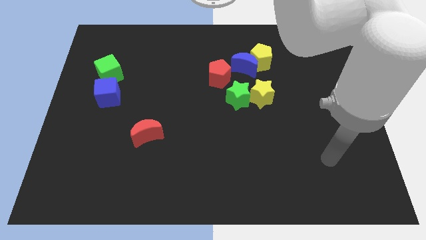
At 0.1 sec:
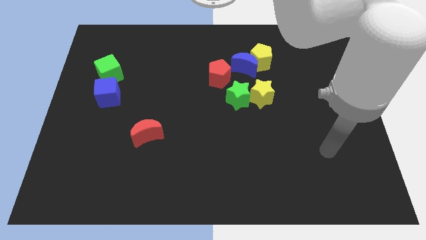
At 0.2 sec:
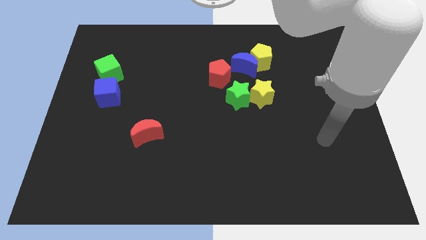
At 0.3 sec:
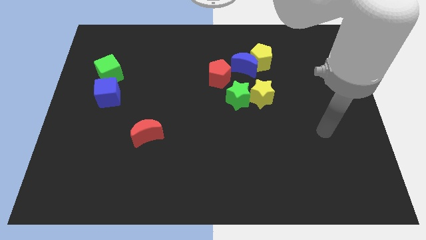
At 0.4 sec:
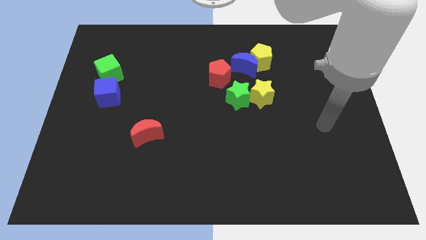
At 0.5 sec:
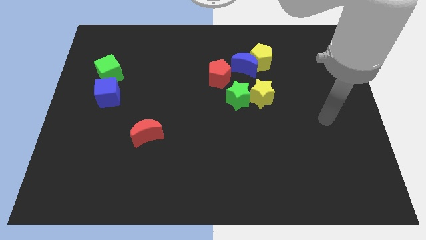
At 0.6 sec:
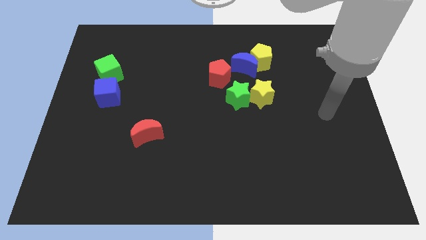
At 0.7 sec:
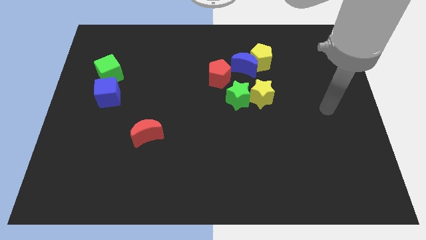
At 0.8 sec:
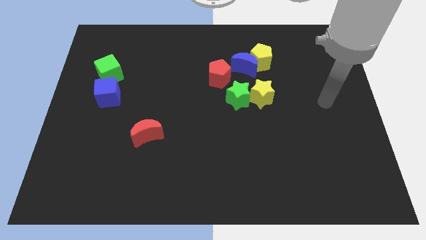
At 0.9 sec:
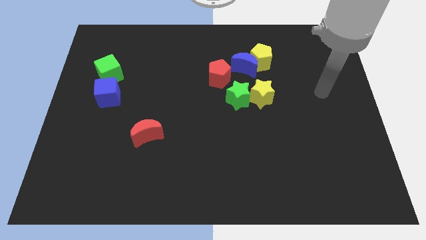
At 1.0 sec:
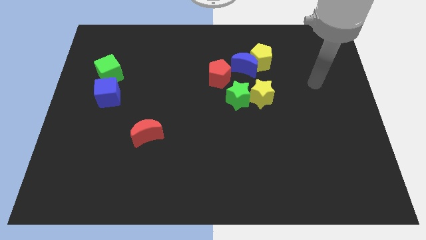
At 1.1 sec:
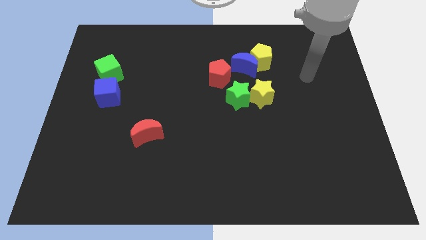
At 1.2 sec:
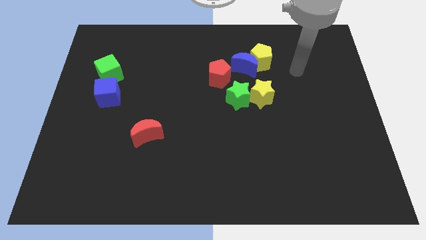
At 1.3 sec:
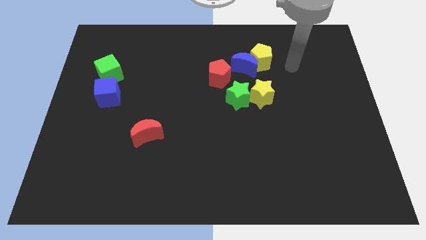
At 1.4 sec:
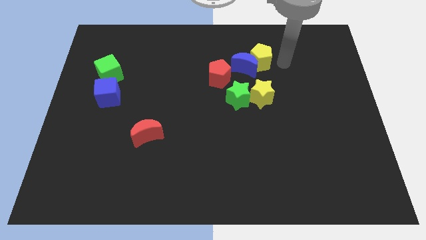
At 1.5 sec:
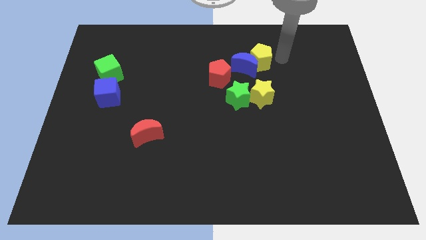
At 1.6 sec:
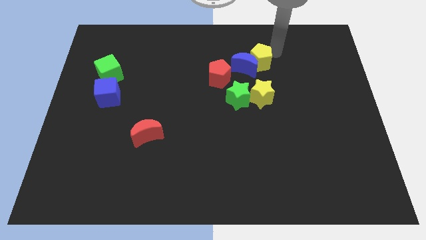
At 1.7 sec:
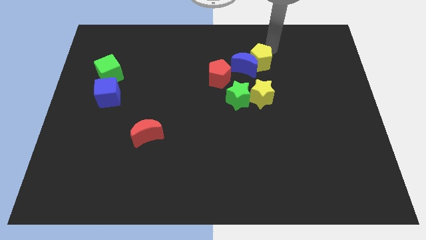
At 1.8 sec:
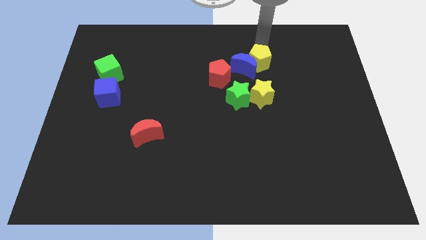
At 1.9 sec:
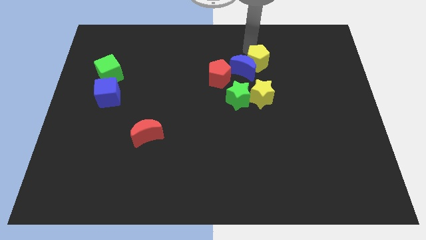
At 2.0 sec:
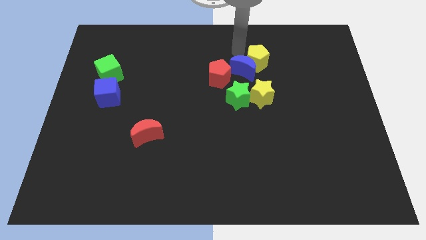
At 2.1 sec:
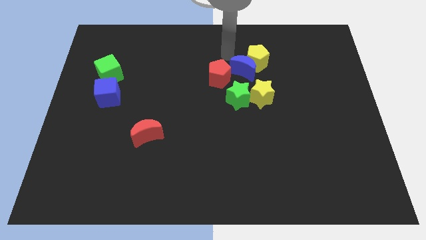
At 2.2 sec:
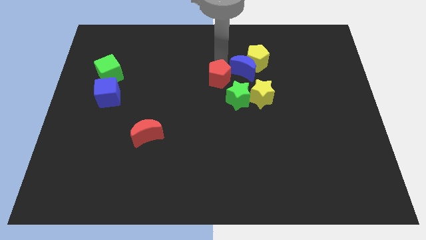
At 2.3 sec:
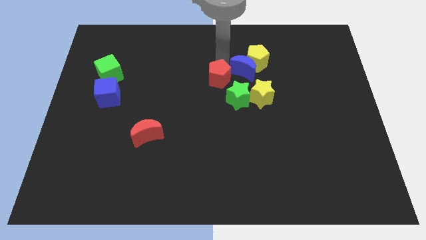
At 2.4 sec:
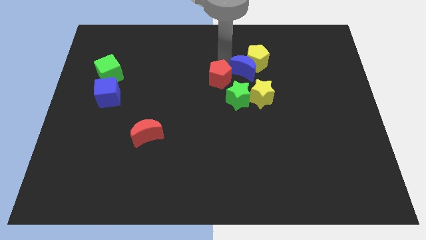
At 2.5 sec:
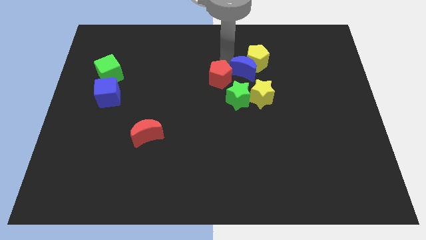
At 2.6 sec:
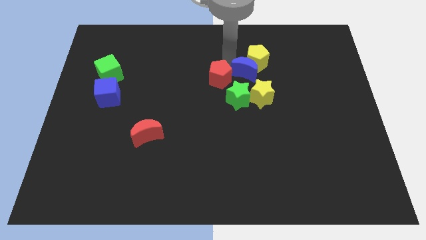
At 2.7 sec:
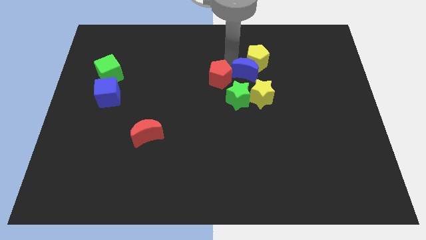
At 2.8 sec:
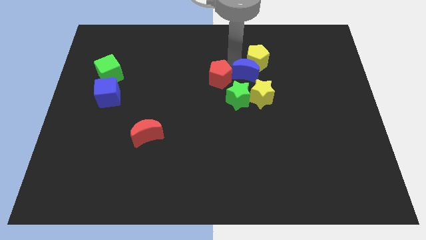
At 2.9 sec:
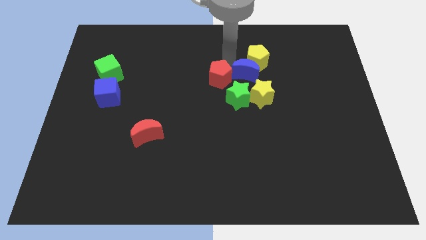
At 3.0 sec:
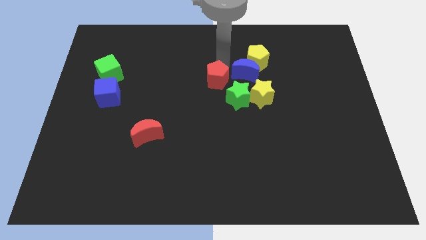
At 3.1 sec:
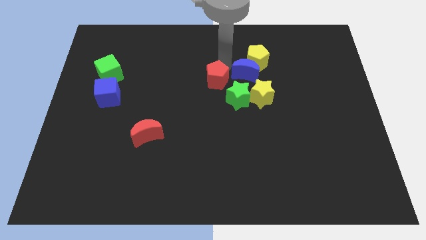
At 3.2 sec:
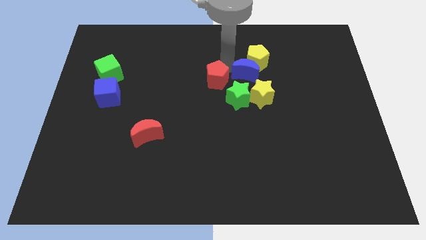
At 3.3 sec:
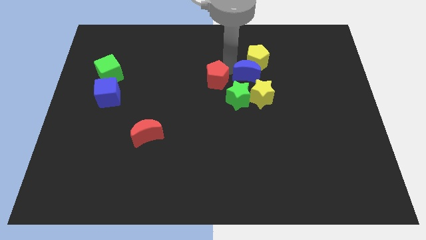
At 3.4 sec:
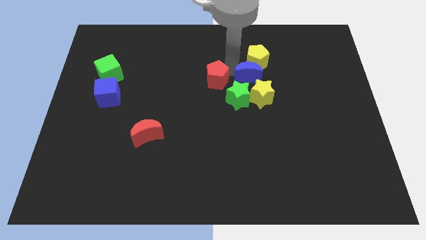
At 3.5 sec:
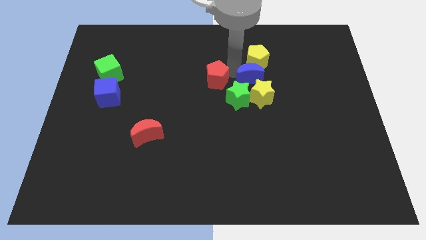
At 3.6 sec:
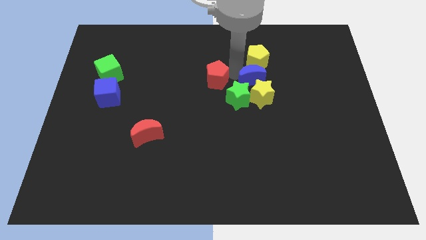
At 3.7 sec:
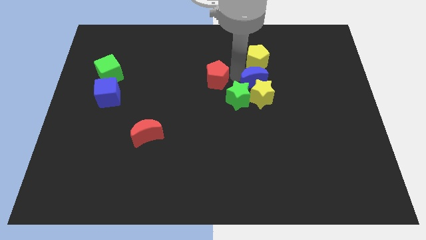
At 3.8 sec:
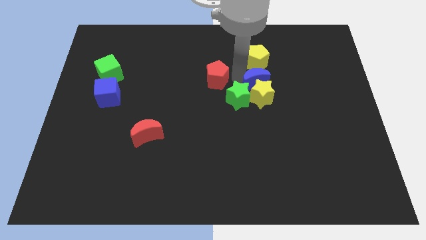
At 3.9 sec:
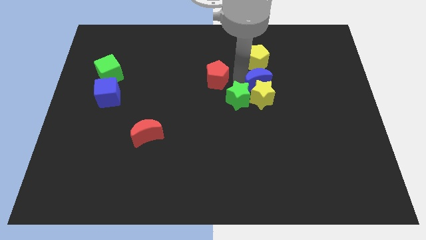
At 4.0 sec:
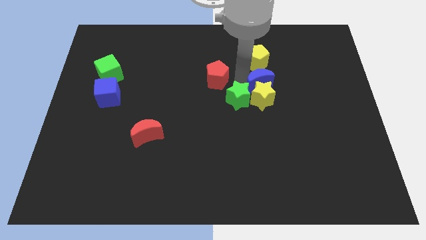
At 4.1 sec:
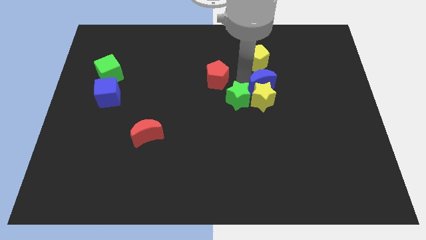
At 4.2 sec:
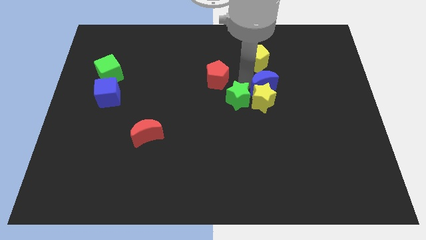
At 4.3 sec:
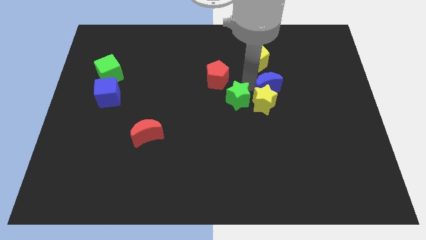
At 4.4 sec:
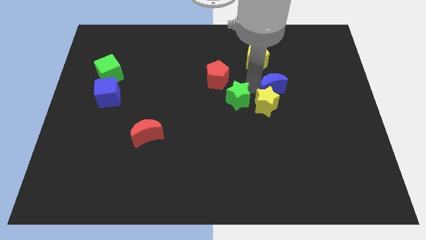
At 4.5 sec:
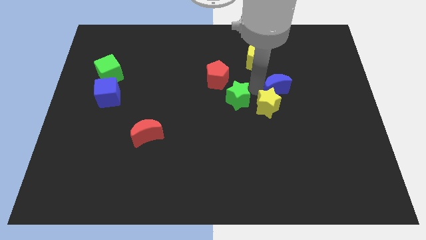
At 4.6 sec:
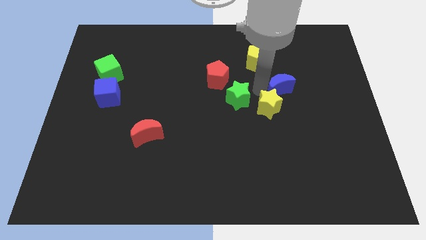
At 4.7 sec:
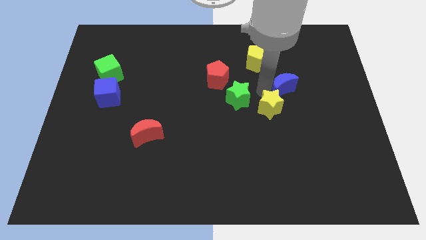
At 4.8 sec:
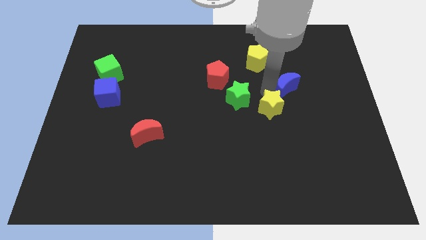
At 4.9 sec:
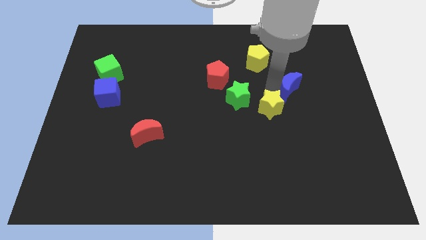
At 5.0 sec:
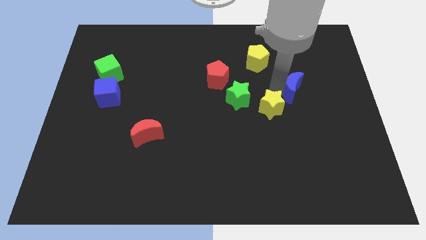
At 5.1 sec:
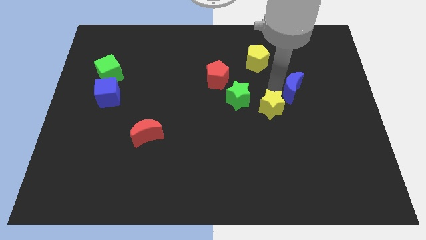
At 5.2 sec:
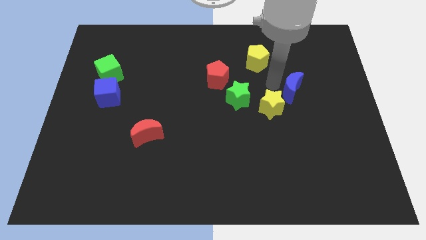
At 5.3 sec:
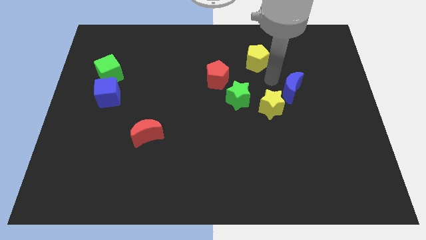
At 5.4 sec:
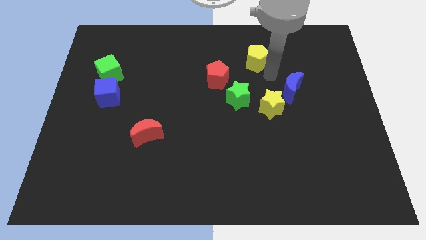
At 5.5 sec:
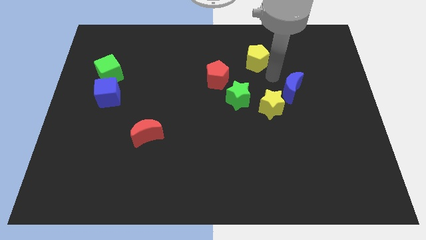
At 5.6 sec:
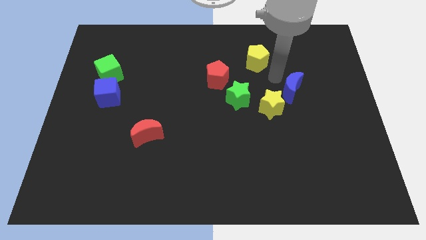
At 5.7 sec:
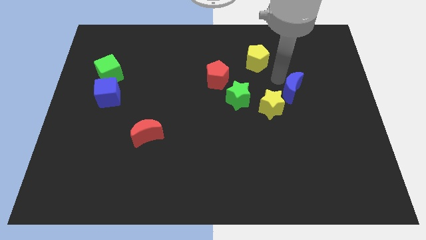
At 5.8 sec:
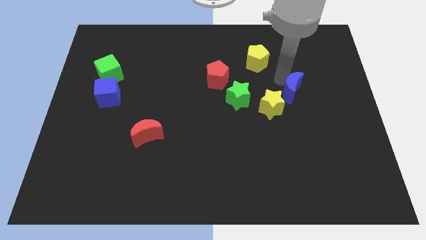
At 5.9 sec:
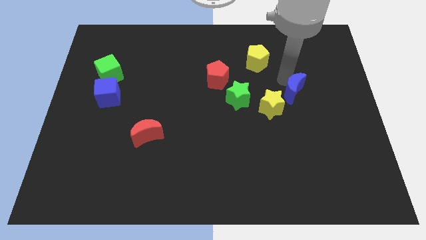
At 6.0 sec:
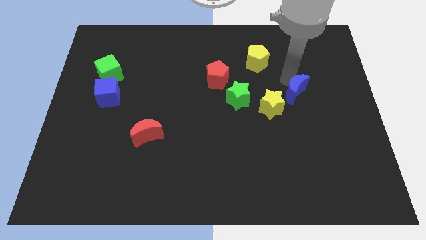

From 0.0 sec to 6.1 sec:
put the blue moon right of the yellow star

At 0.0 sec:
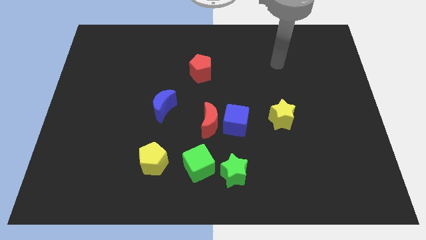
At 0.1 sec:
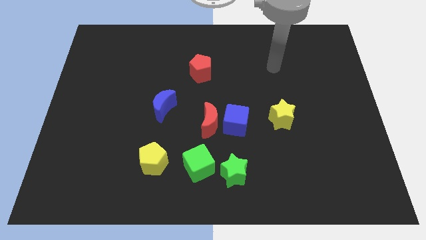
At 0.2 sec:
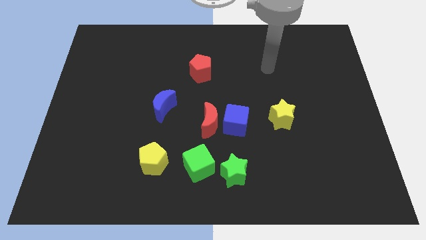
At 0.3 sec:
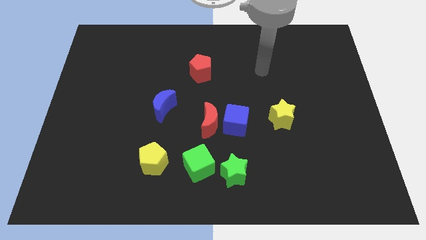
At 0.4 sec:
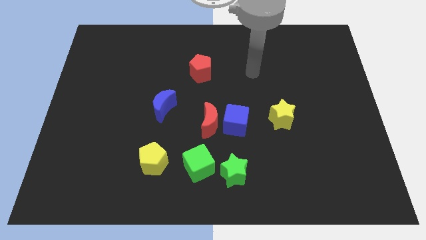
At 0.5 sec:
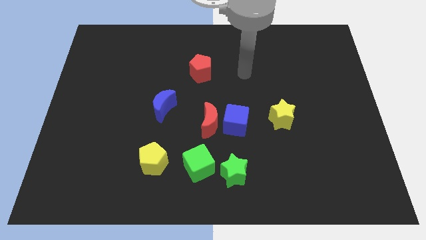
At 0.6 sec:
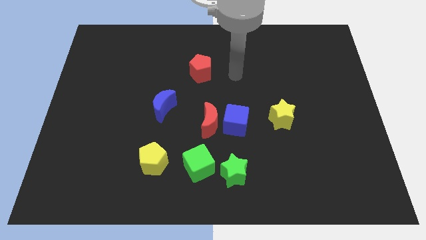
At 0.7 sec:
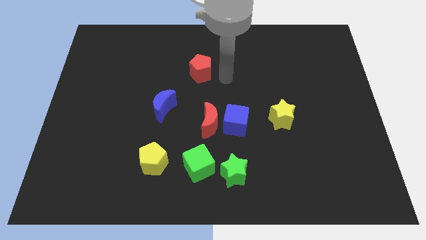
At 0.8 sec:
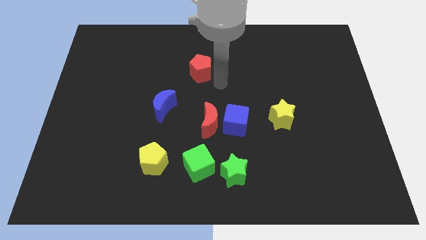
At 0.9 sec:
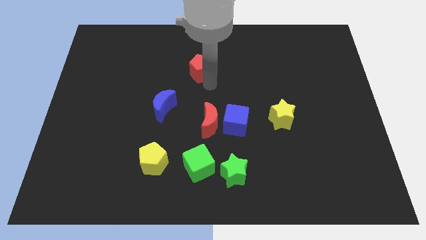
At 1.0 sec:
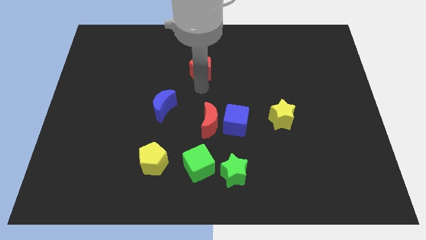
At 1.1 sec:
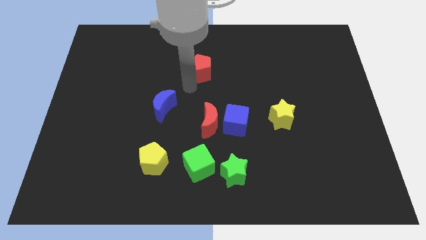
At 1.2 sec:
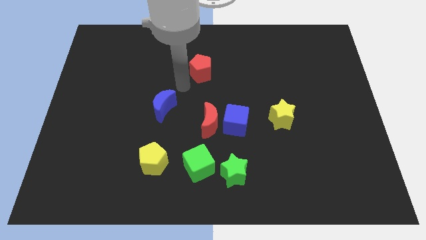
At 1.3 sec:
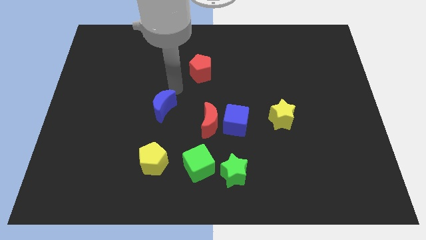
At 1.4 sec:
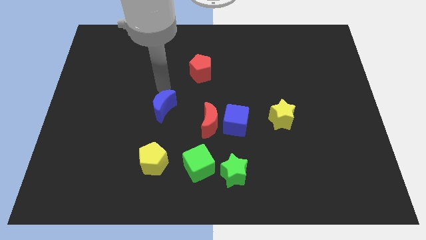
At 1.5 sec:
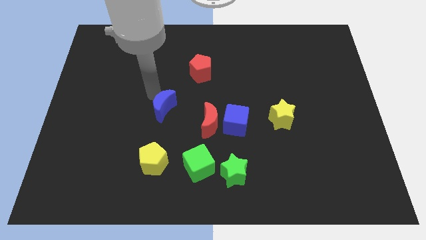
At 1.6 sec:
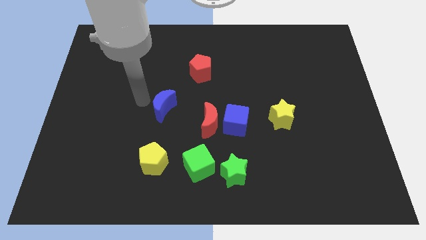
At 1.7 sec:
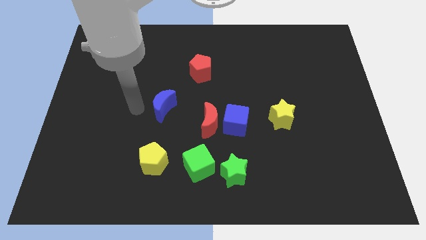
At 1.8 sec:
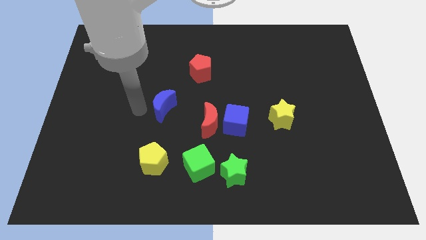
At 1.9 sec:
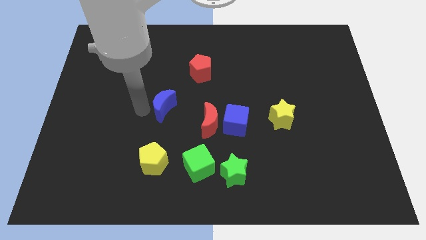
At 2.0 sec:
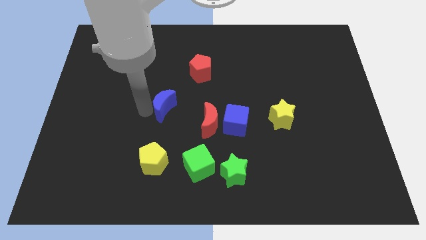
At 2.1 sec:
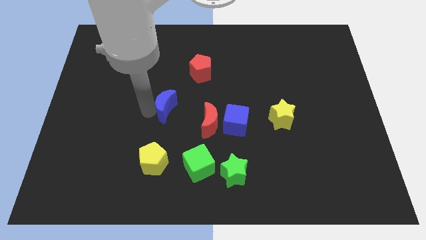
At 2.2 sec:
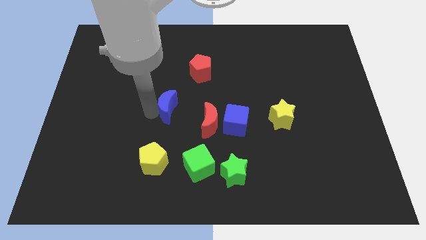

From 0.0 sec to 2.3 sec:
put the blue moon to the top left side of the red moon
